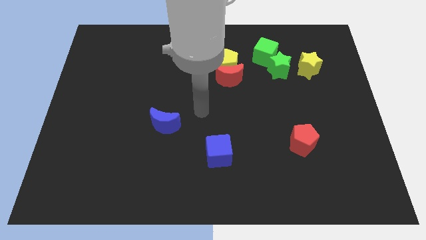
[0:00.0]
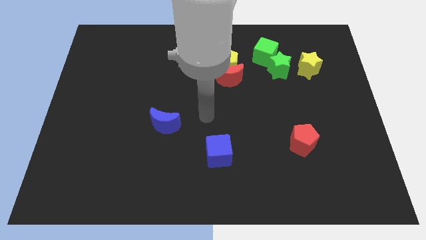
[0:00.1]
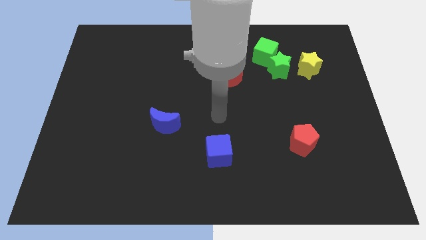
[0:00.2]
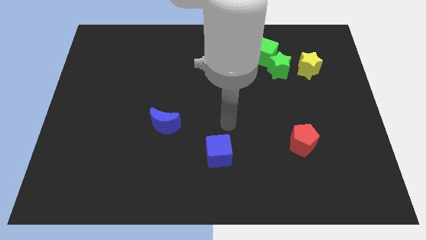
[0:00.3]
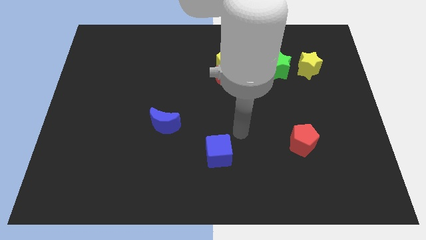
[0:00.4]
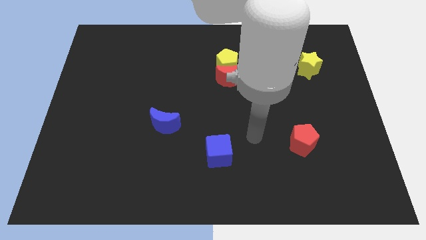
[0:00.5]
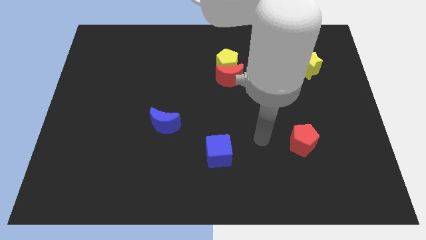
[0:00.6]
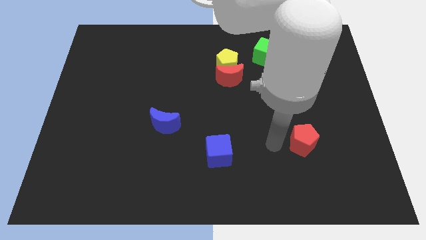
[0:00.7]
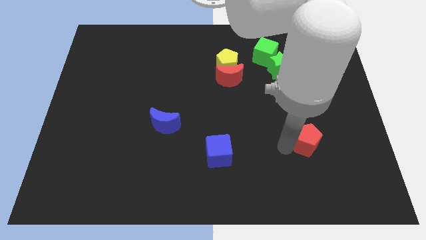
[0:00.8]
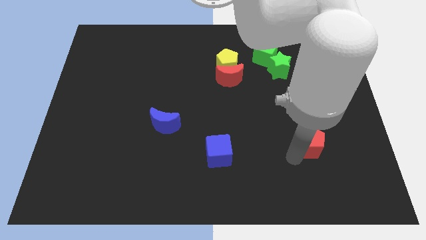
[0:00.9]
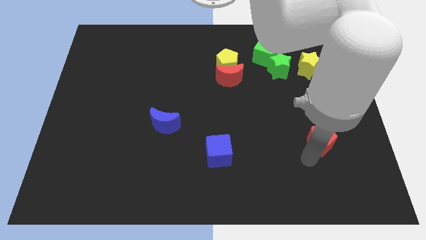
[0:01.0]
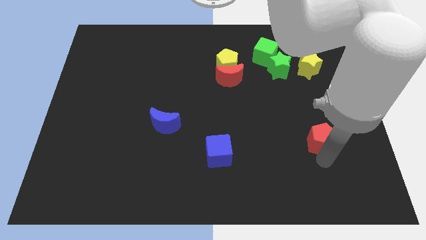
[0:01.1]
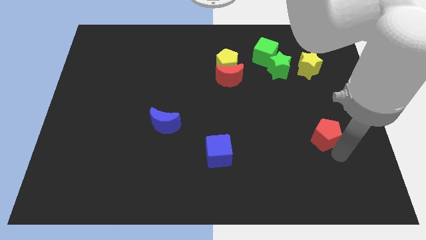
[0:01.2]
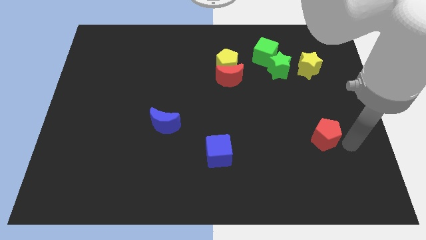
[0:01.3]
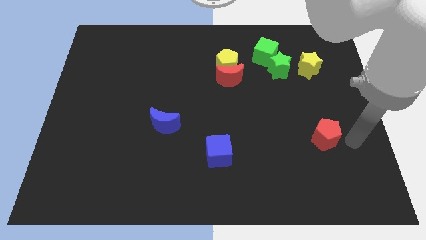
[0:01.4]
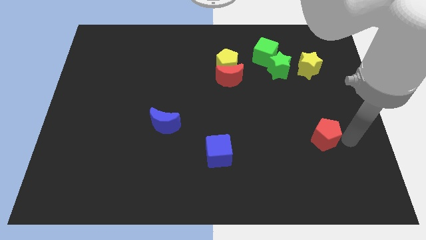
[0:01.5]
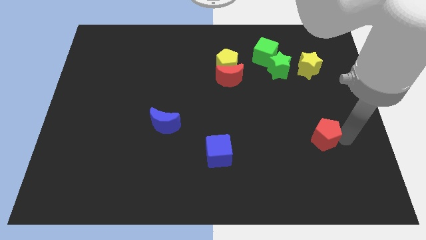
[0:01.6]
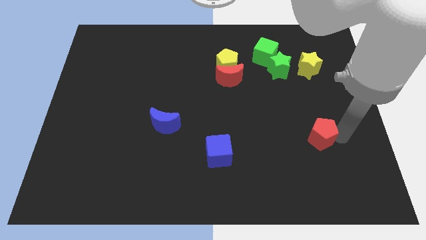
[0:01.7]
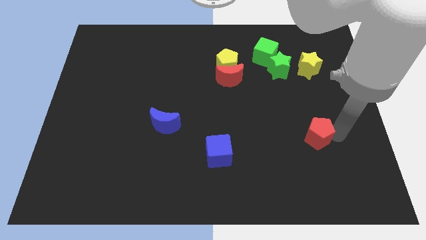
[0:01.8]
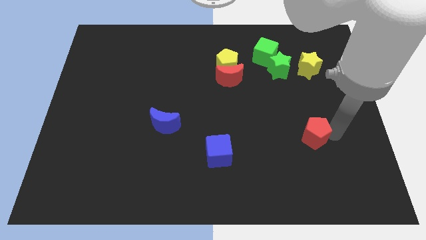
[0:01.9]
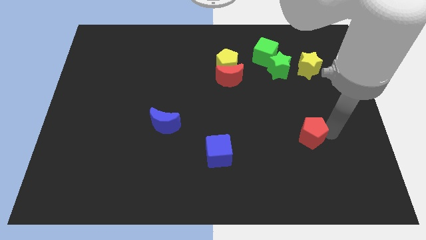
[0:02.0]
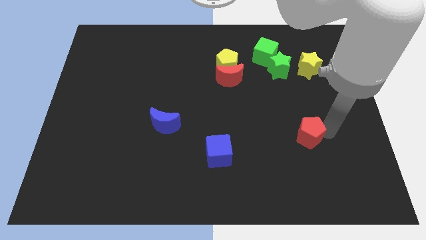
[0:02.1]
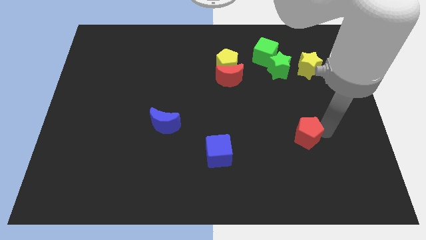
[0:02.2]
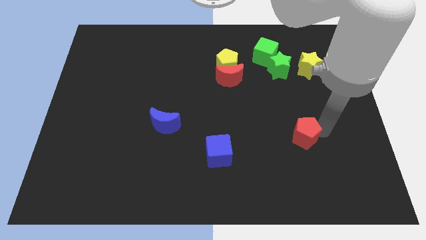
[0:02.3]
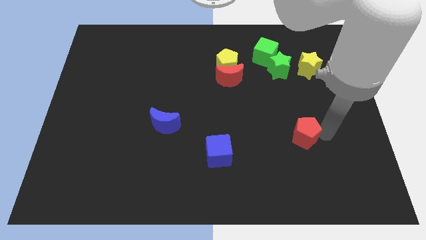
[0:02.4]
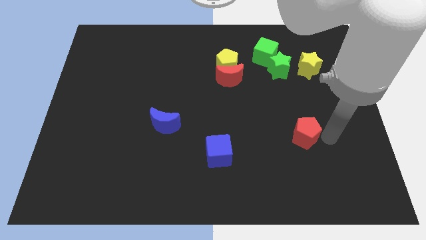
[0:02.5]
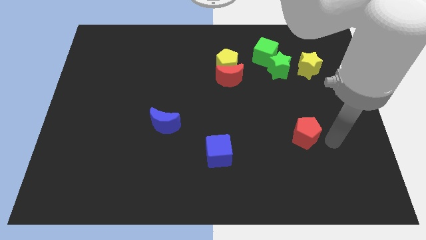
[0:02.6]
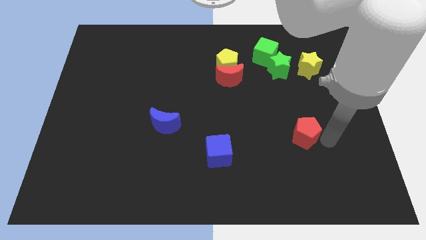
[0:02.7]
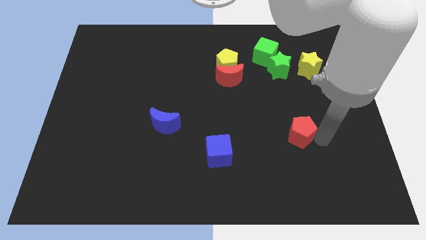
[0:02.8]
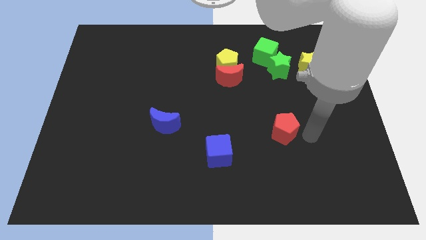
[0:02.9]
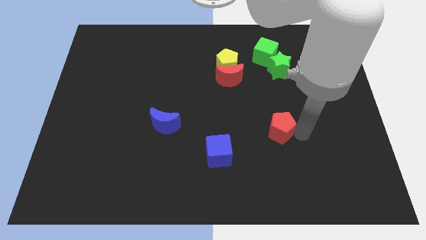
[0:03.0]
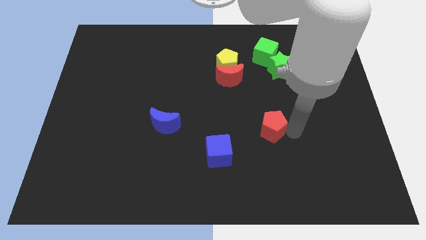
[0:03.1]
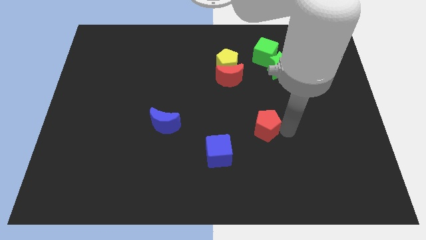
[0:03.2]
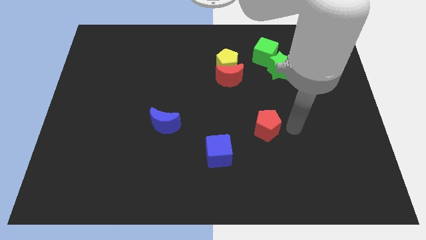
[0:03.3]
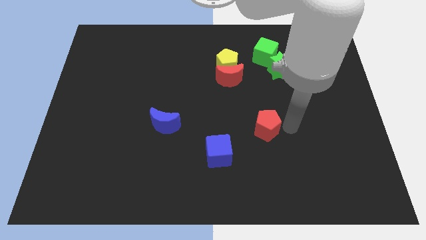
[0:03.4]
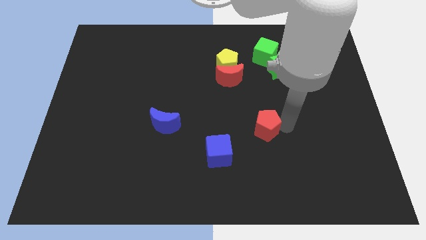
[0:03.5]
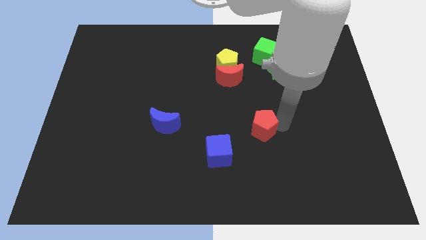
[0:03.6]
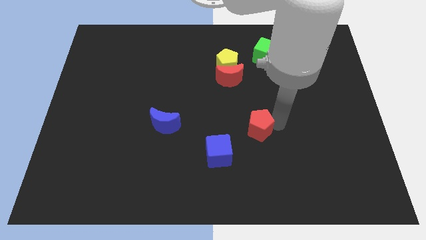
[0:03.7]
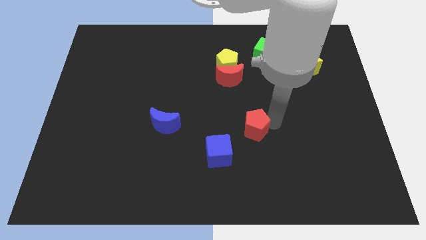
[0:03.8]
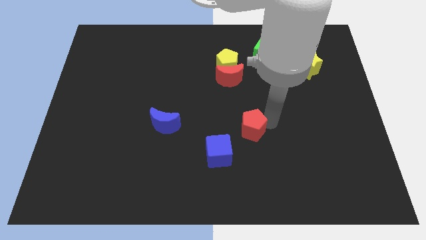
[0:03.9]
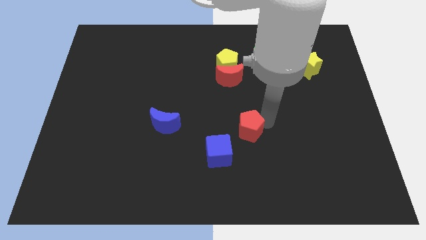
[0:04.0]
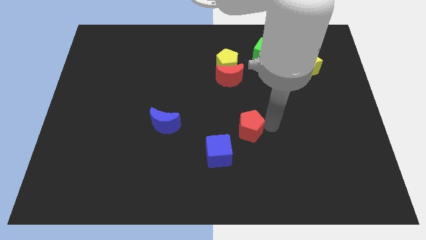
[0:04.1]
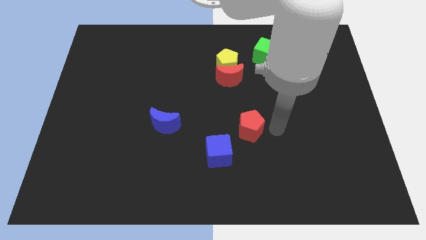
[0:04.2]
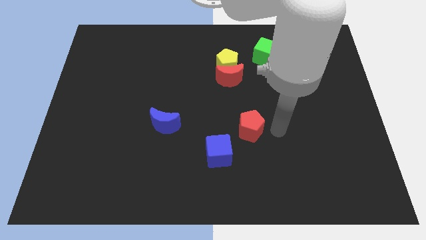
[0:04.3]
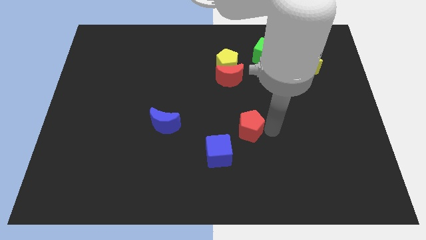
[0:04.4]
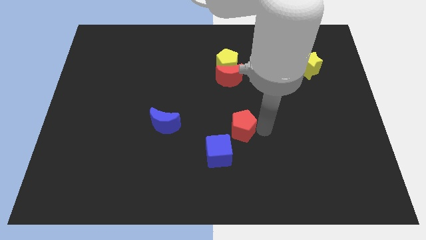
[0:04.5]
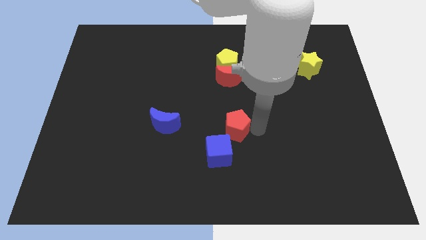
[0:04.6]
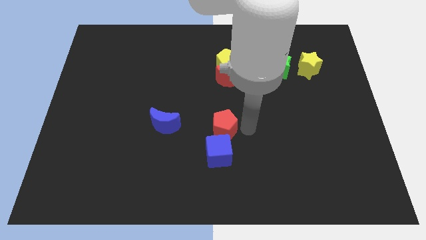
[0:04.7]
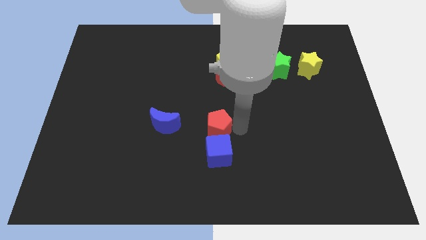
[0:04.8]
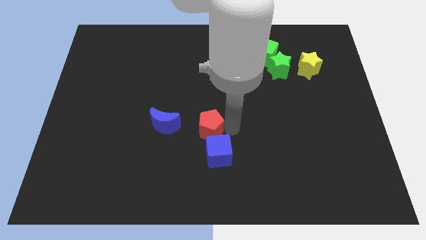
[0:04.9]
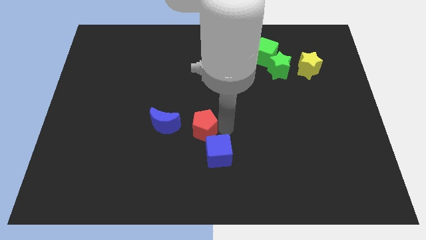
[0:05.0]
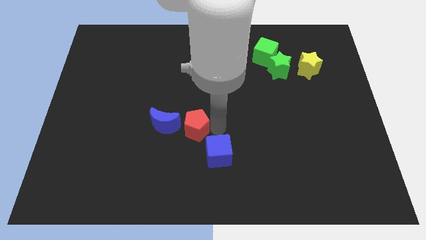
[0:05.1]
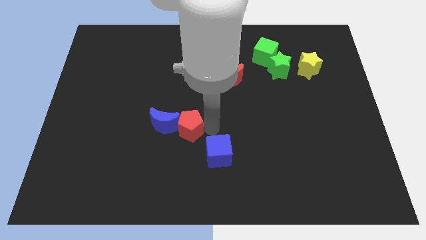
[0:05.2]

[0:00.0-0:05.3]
push the red pentagon close to the blue moon

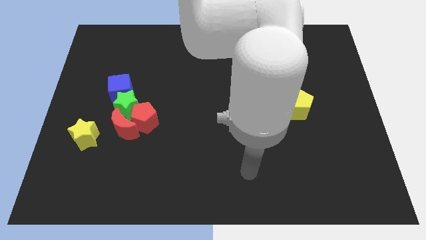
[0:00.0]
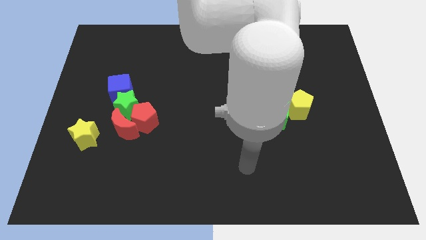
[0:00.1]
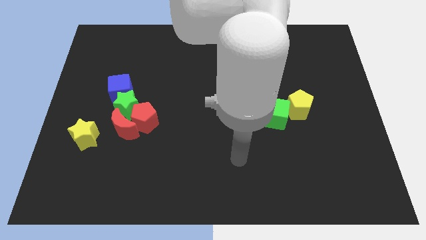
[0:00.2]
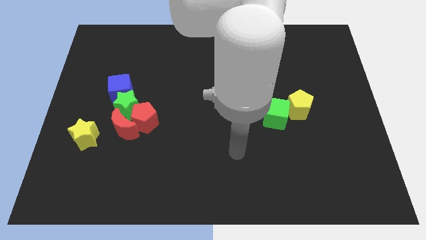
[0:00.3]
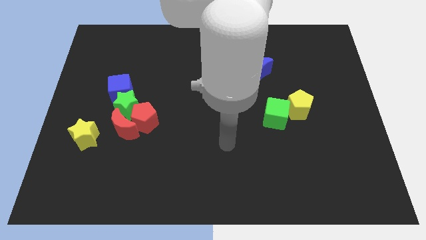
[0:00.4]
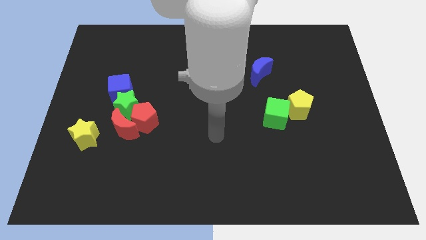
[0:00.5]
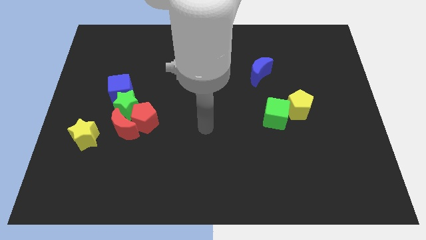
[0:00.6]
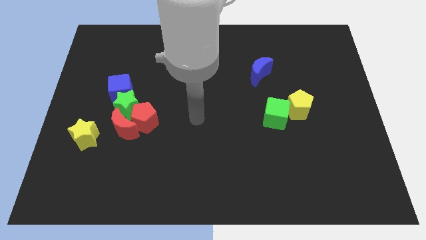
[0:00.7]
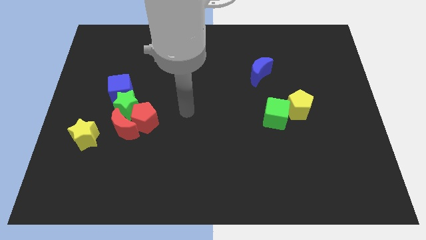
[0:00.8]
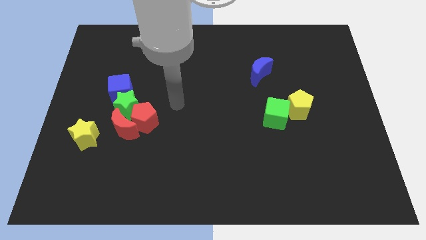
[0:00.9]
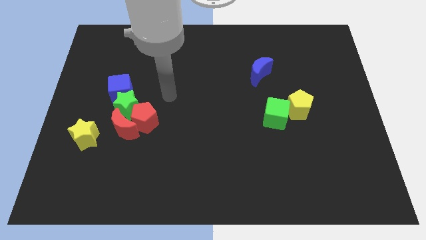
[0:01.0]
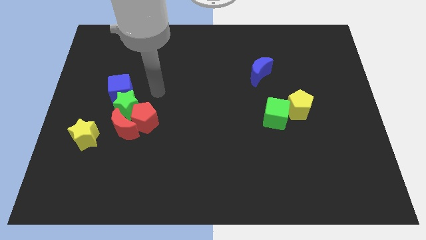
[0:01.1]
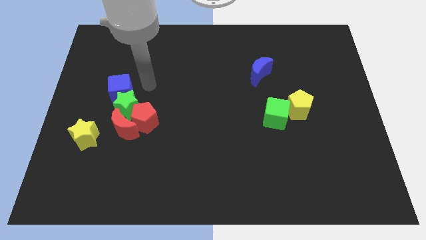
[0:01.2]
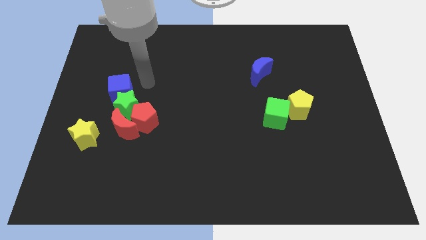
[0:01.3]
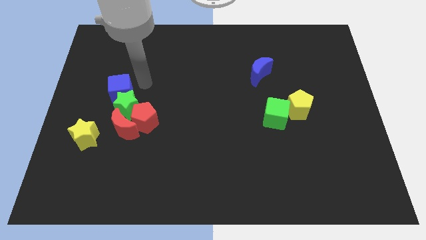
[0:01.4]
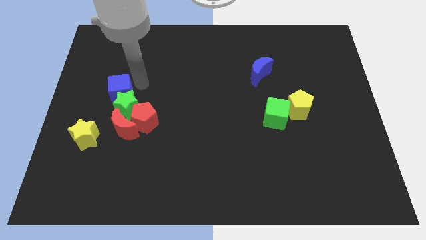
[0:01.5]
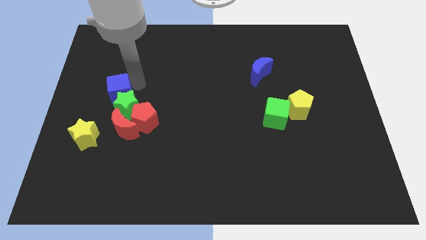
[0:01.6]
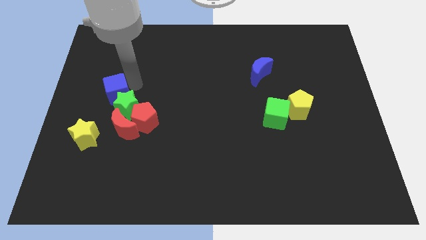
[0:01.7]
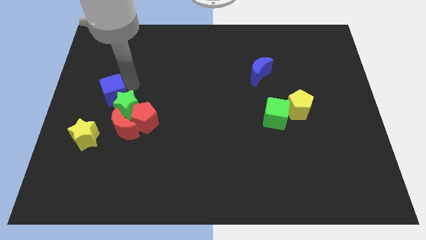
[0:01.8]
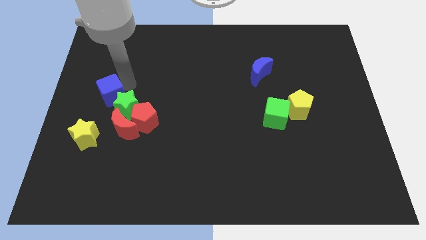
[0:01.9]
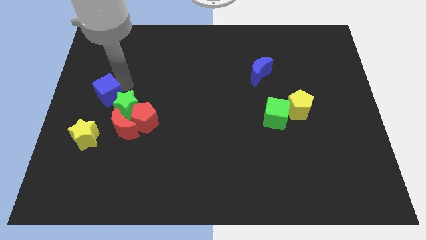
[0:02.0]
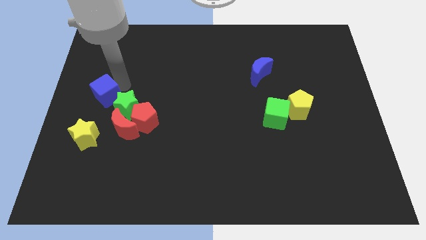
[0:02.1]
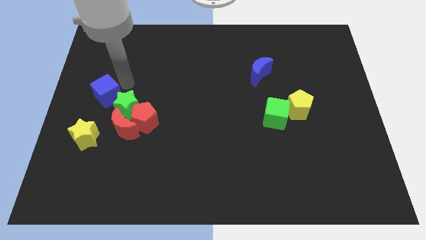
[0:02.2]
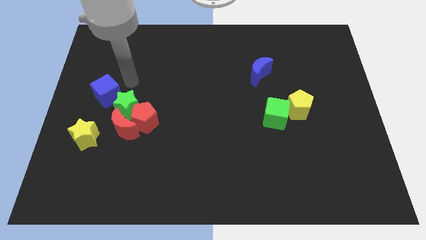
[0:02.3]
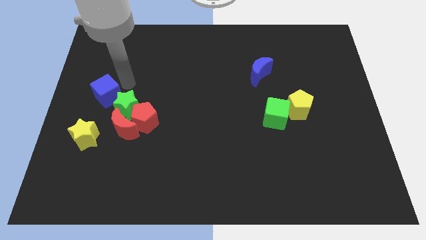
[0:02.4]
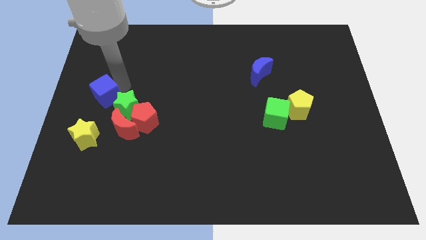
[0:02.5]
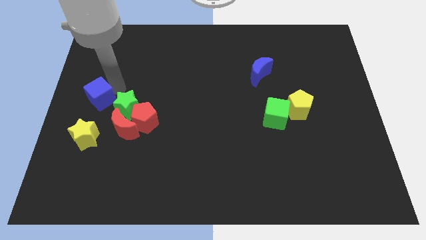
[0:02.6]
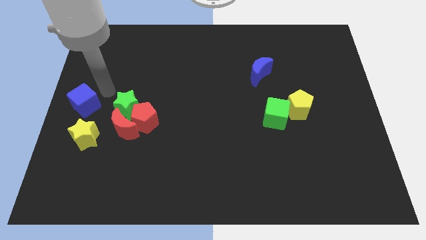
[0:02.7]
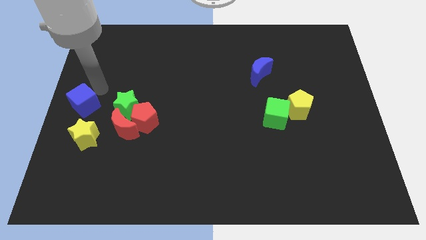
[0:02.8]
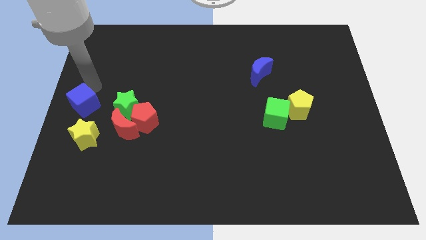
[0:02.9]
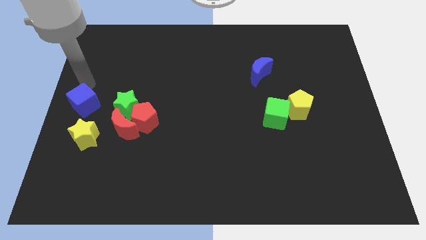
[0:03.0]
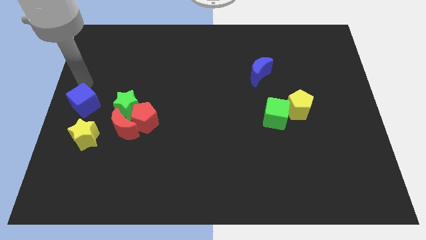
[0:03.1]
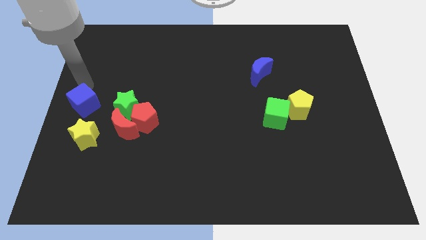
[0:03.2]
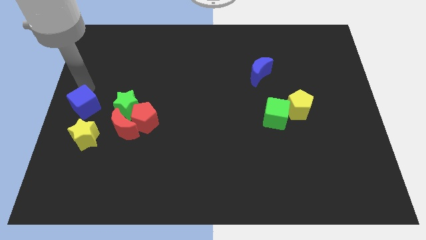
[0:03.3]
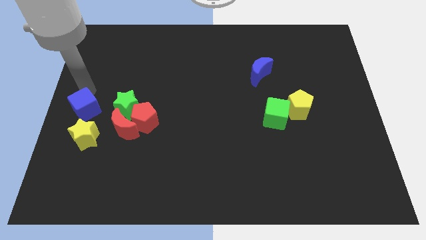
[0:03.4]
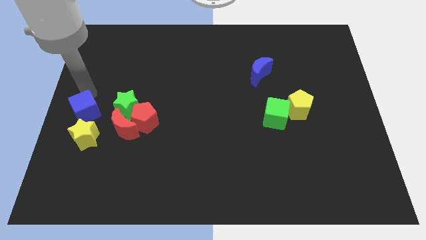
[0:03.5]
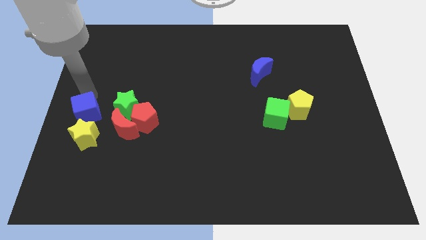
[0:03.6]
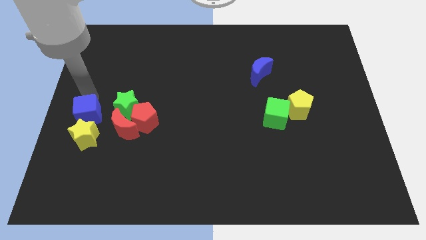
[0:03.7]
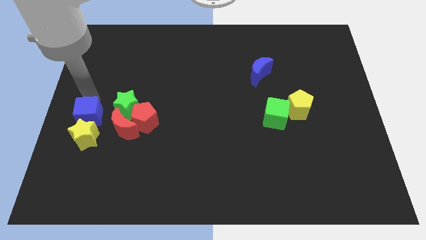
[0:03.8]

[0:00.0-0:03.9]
push the blue cube close to the yellow star
